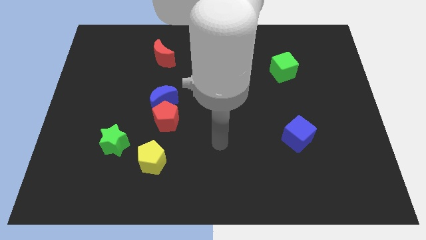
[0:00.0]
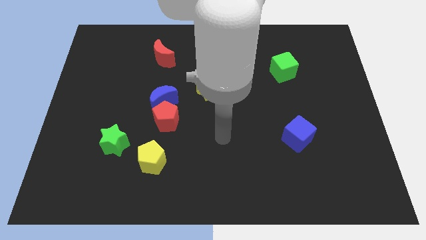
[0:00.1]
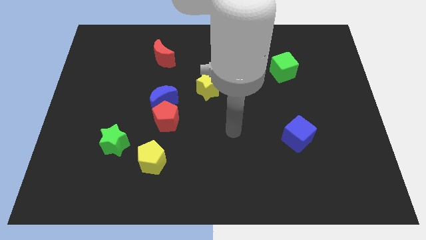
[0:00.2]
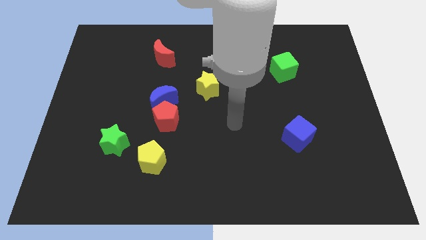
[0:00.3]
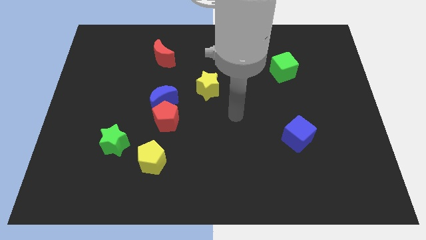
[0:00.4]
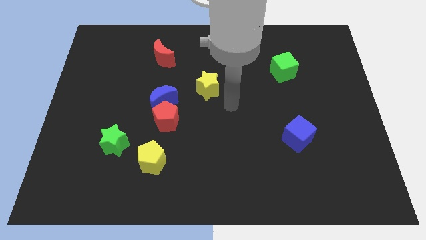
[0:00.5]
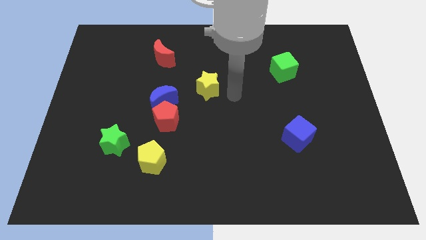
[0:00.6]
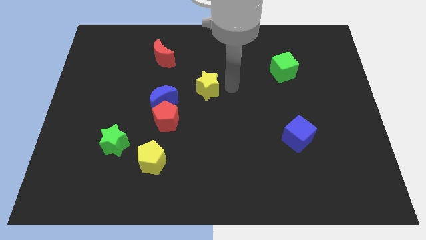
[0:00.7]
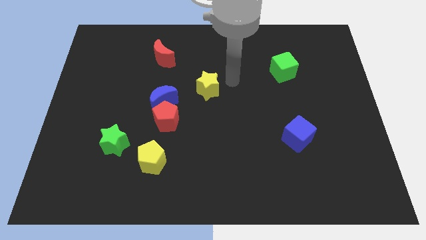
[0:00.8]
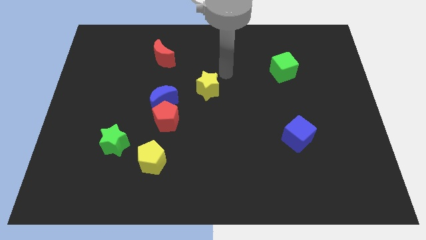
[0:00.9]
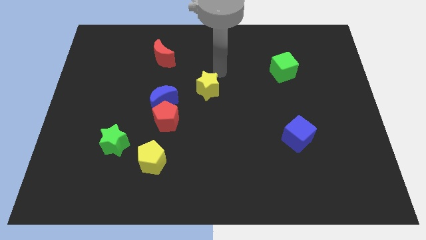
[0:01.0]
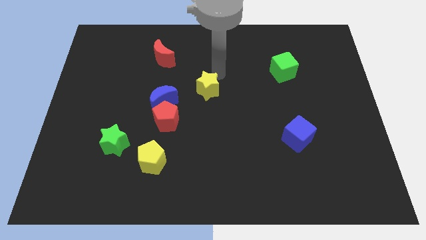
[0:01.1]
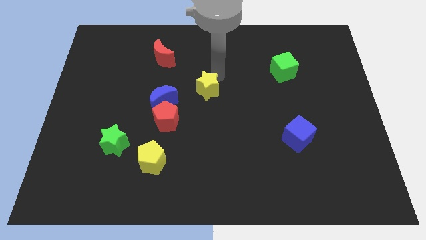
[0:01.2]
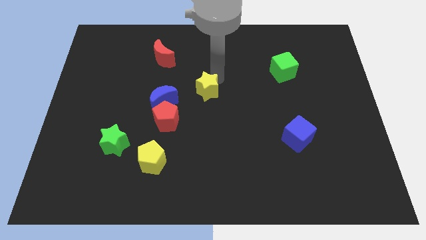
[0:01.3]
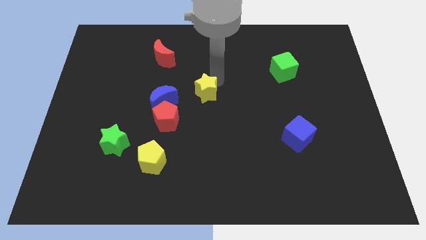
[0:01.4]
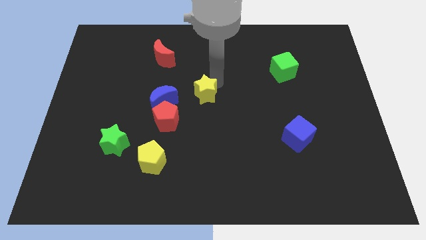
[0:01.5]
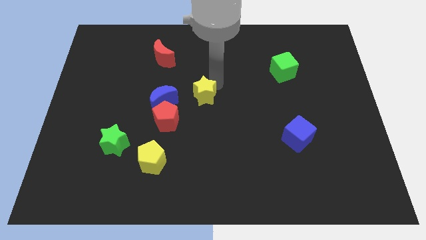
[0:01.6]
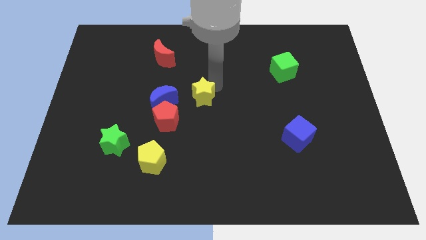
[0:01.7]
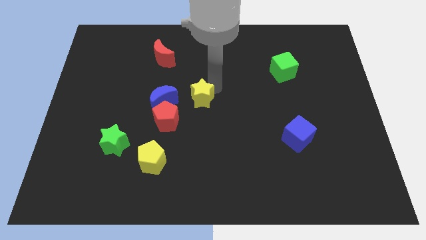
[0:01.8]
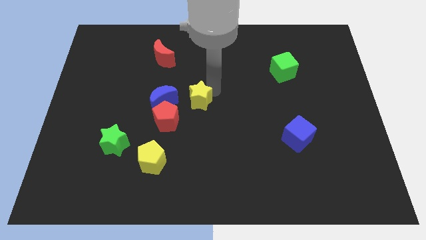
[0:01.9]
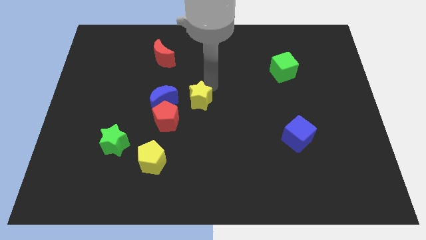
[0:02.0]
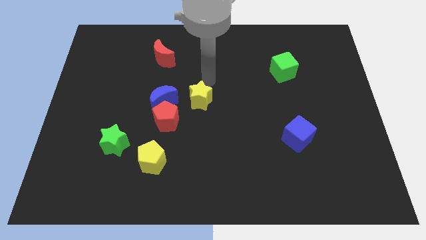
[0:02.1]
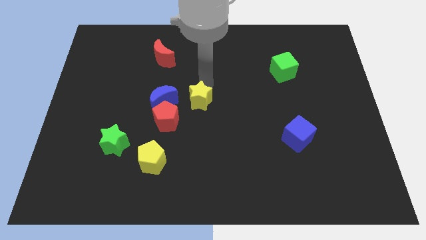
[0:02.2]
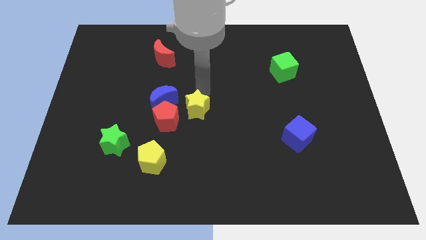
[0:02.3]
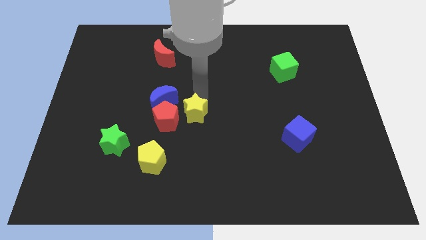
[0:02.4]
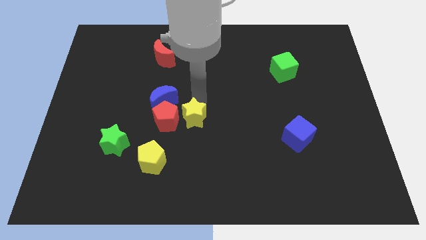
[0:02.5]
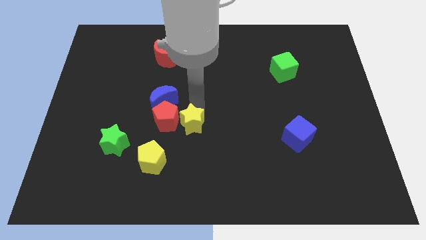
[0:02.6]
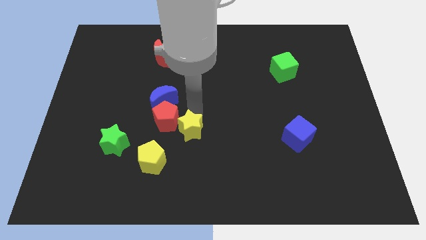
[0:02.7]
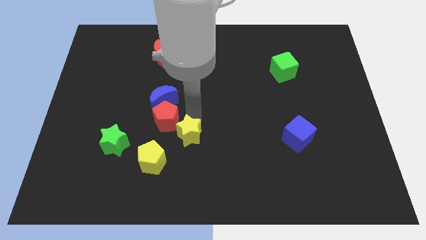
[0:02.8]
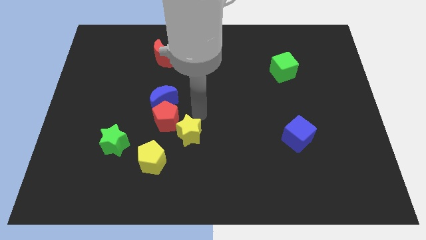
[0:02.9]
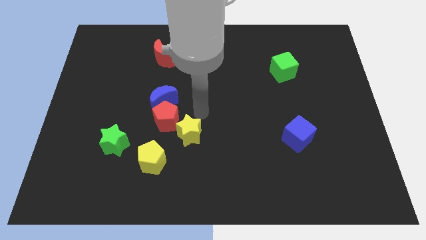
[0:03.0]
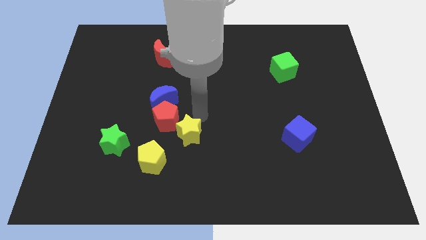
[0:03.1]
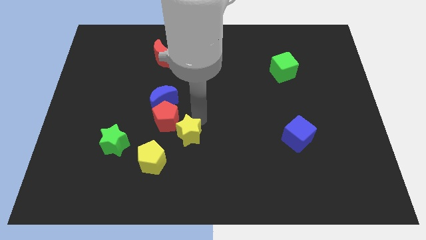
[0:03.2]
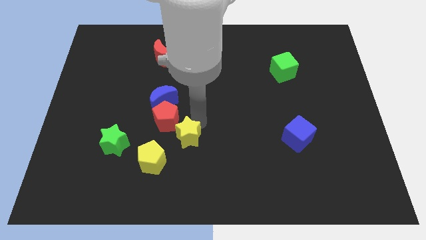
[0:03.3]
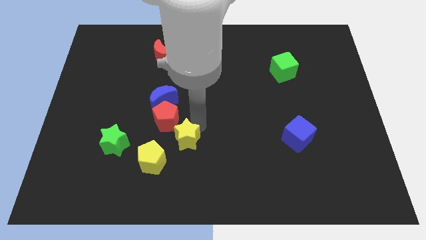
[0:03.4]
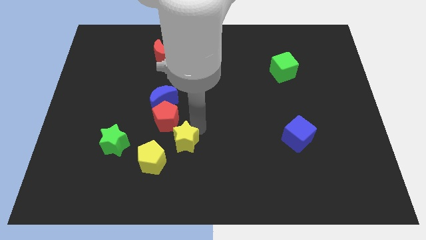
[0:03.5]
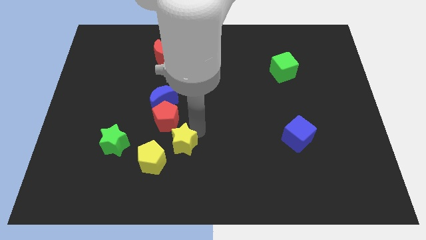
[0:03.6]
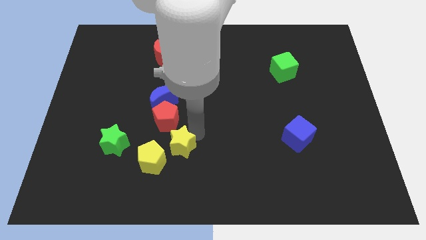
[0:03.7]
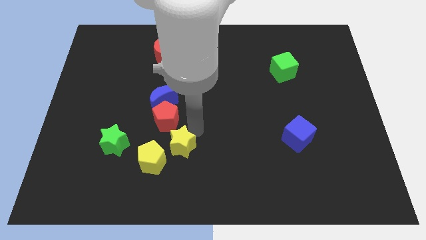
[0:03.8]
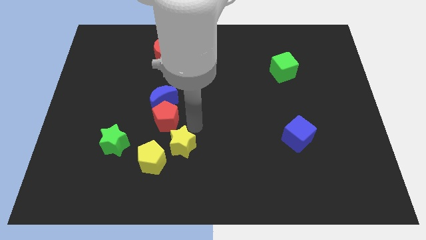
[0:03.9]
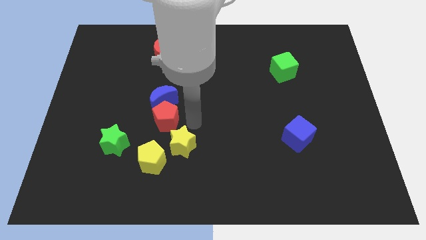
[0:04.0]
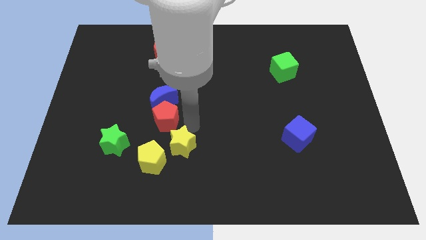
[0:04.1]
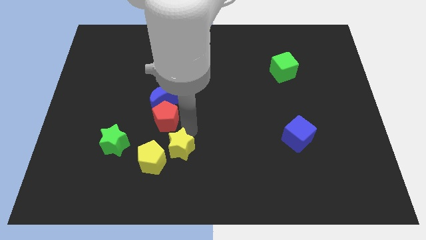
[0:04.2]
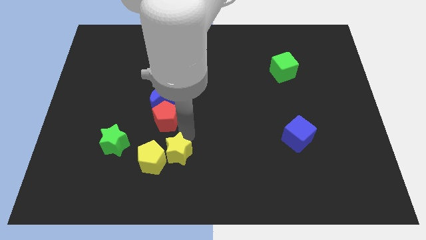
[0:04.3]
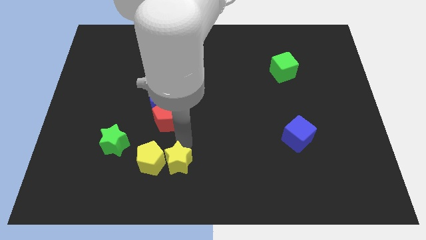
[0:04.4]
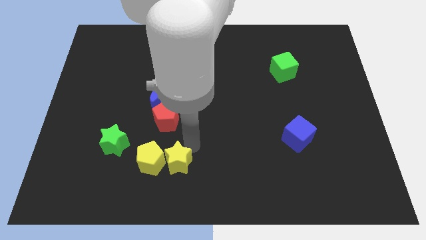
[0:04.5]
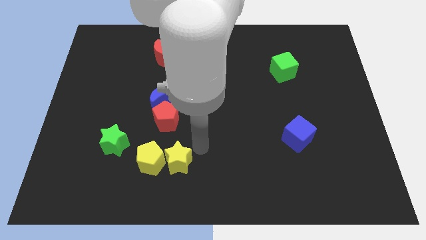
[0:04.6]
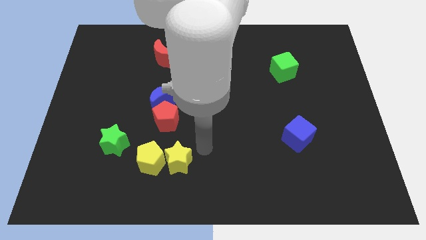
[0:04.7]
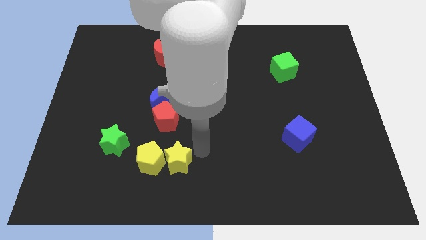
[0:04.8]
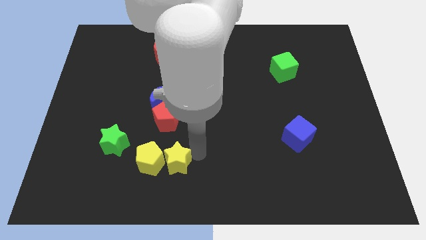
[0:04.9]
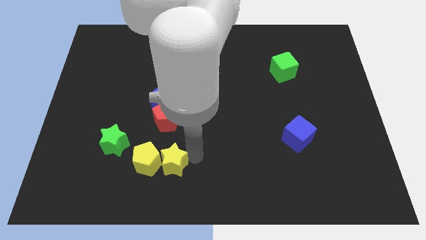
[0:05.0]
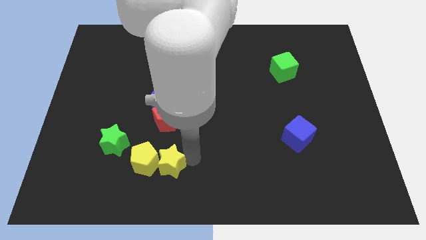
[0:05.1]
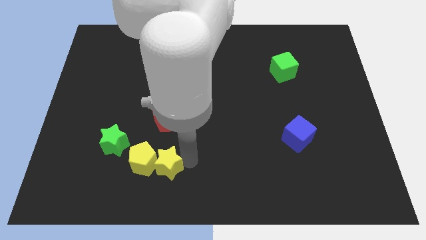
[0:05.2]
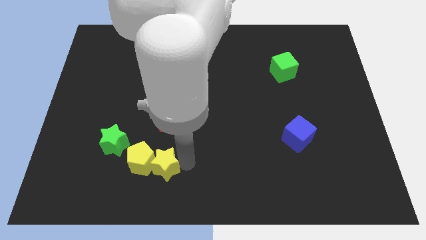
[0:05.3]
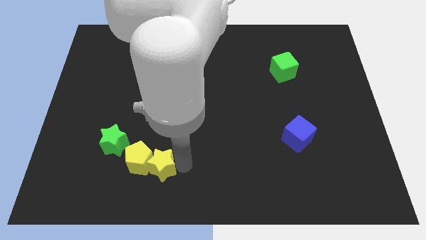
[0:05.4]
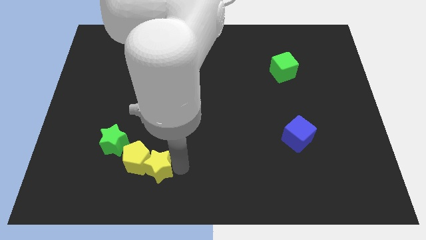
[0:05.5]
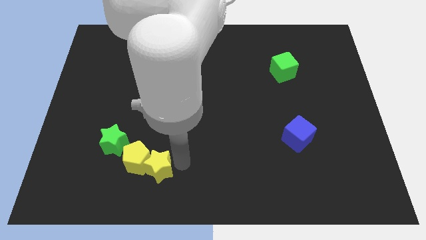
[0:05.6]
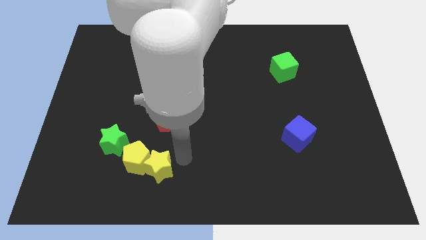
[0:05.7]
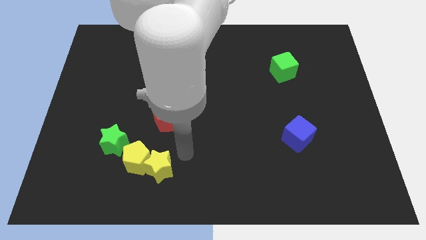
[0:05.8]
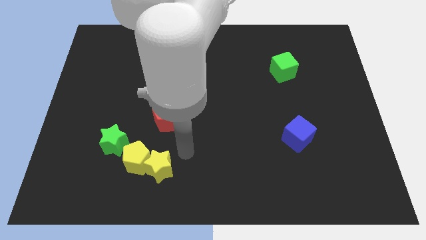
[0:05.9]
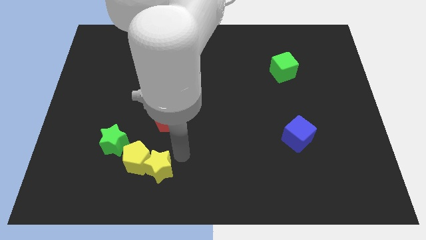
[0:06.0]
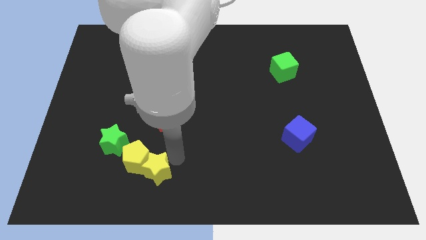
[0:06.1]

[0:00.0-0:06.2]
push the yellow star downwards and then left

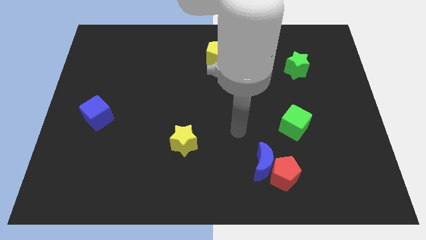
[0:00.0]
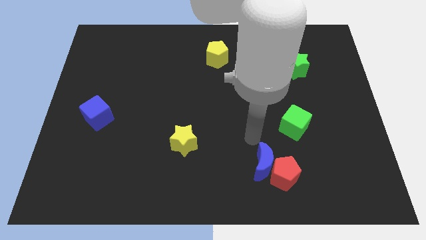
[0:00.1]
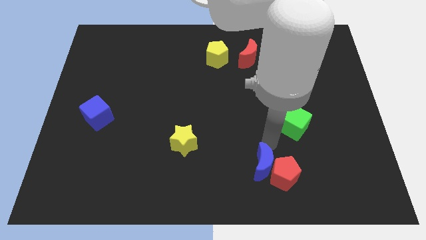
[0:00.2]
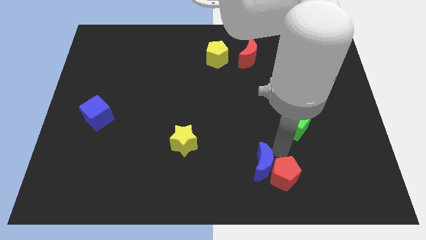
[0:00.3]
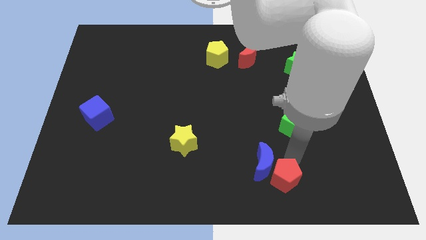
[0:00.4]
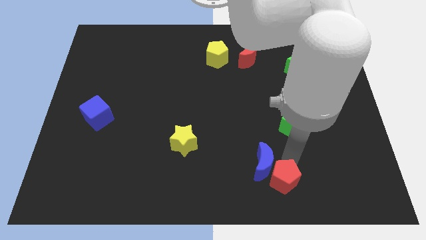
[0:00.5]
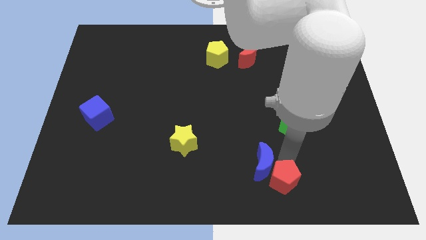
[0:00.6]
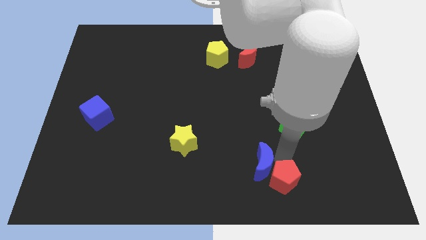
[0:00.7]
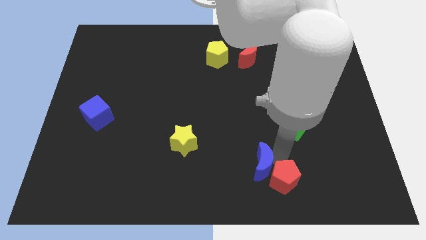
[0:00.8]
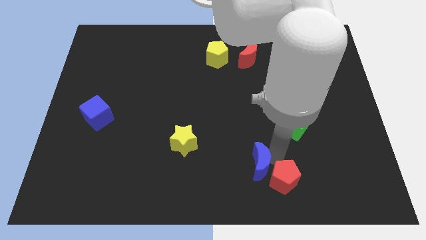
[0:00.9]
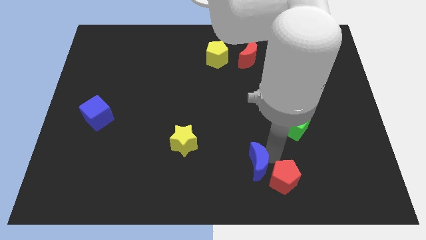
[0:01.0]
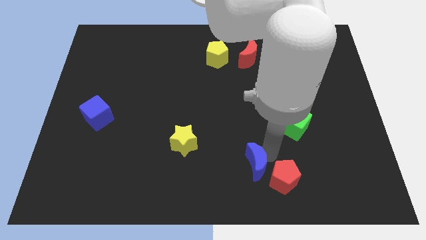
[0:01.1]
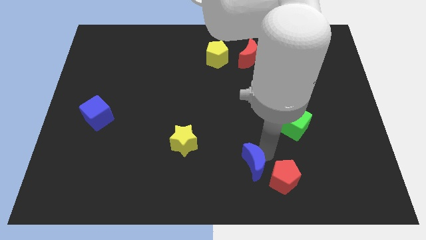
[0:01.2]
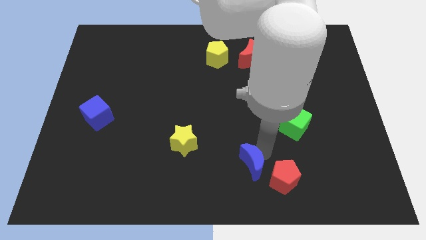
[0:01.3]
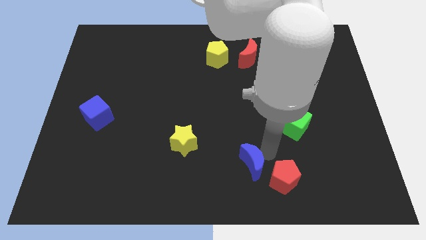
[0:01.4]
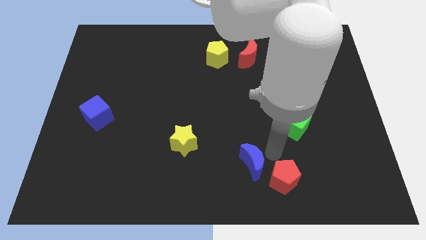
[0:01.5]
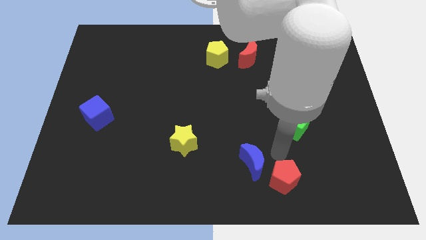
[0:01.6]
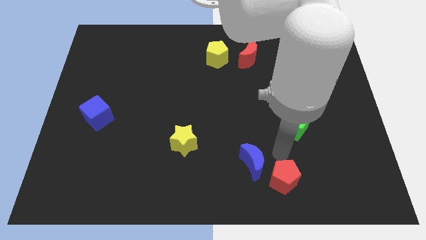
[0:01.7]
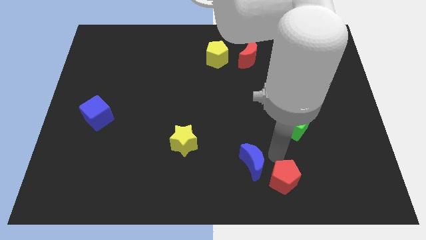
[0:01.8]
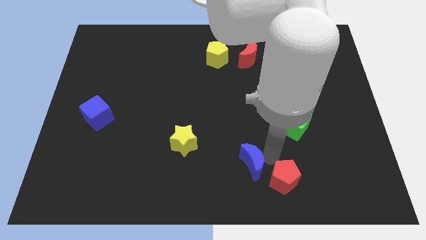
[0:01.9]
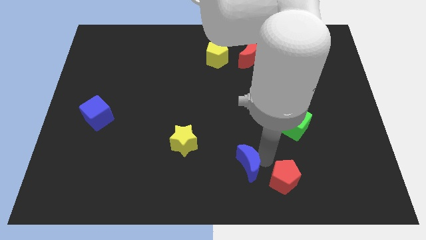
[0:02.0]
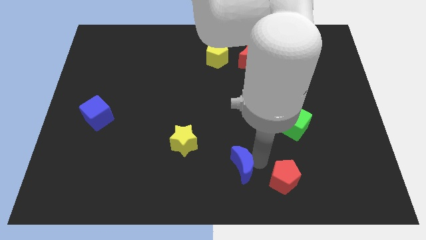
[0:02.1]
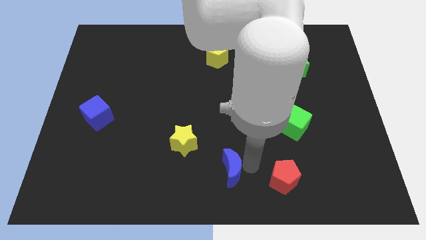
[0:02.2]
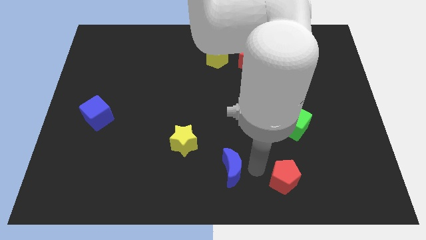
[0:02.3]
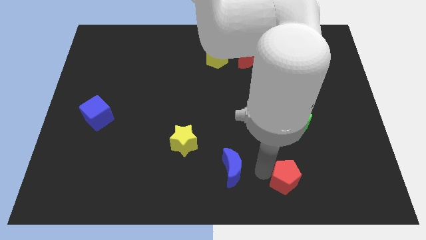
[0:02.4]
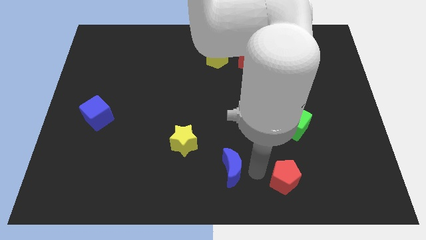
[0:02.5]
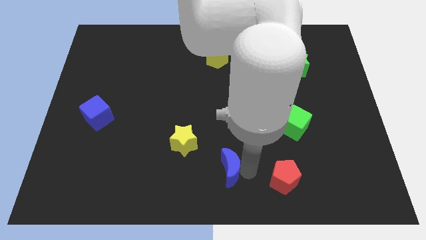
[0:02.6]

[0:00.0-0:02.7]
move the blue moon to the left slightly
